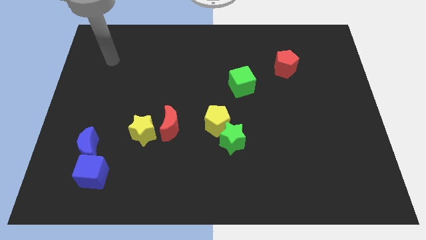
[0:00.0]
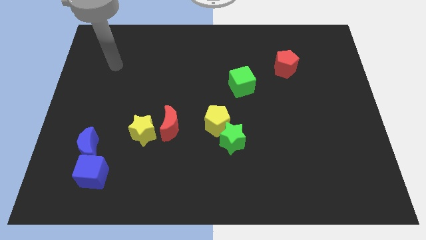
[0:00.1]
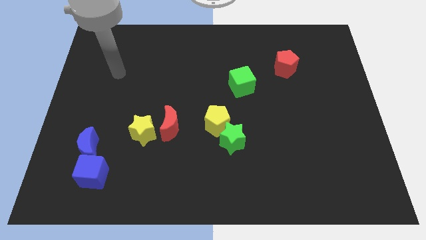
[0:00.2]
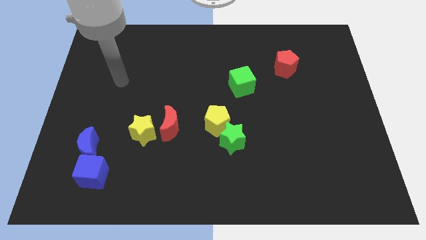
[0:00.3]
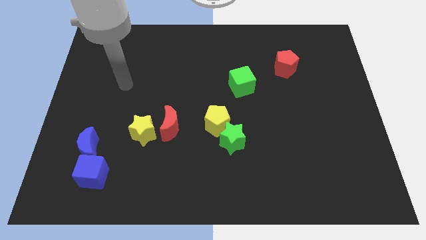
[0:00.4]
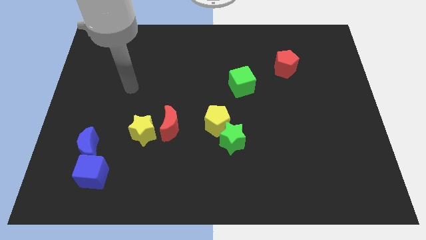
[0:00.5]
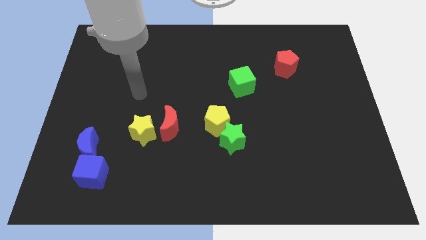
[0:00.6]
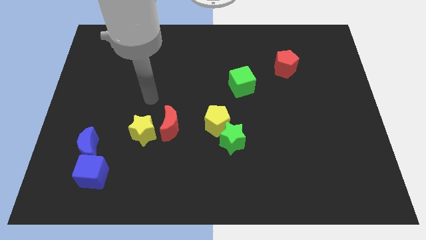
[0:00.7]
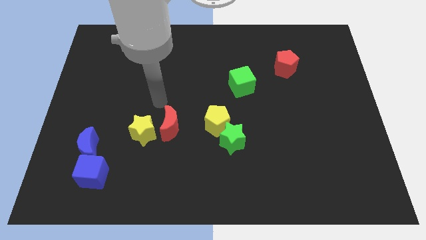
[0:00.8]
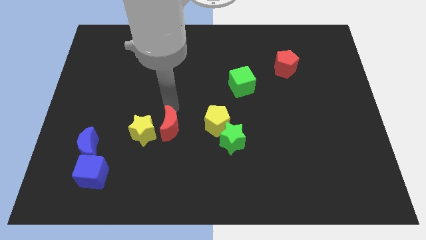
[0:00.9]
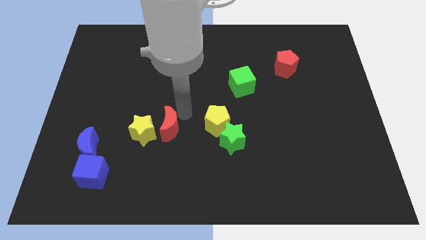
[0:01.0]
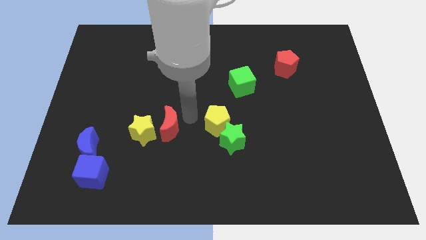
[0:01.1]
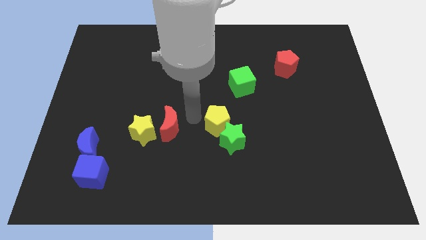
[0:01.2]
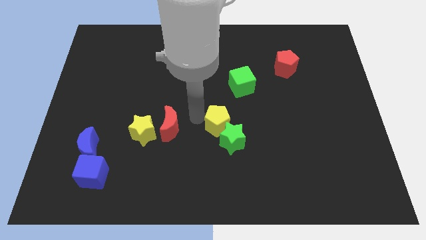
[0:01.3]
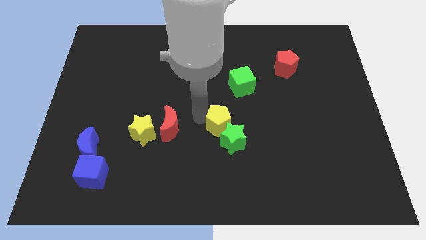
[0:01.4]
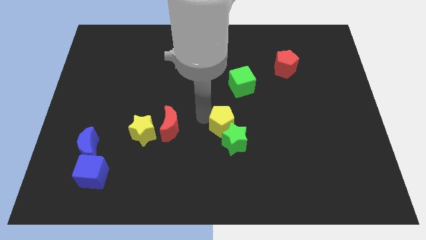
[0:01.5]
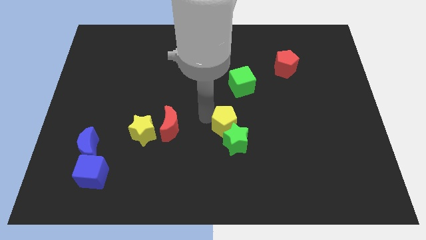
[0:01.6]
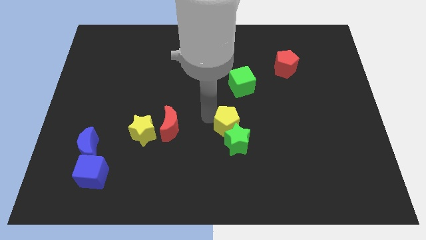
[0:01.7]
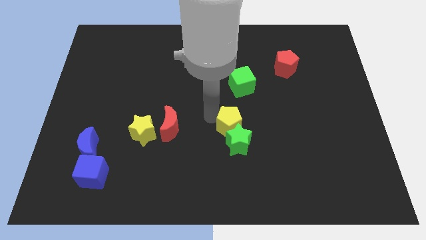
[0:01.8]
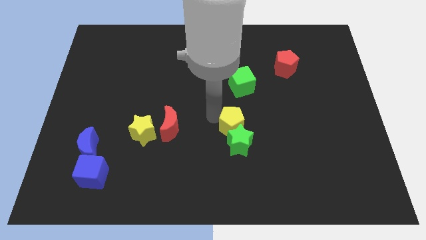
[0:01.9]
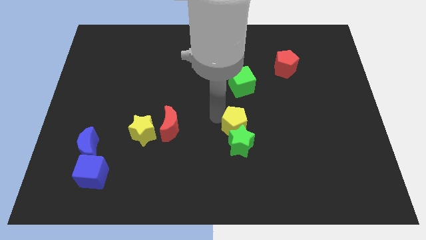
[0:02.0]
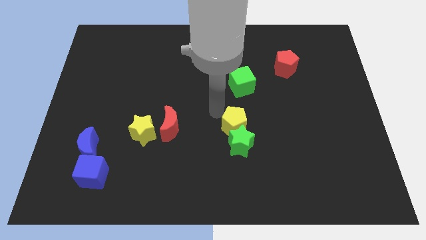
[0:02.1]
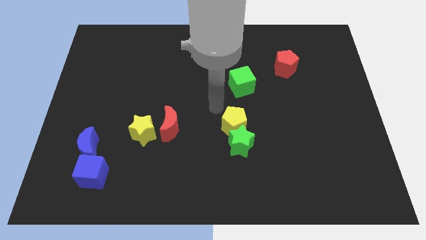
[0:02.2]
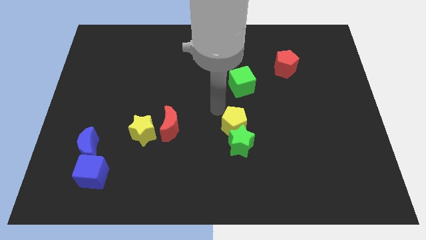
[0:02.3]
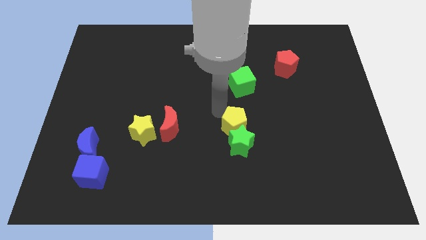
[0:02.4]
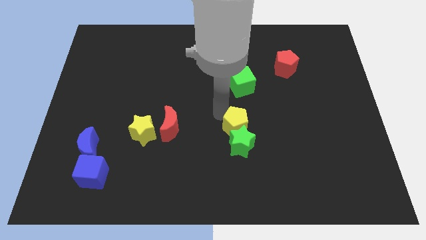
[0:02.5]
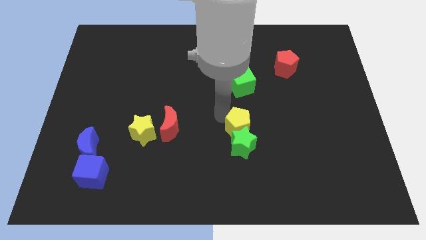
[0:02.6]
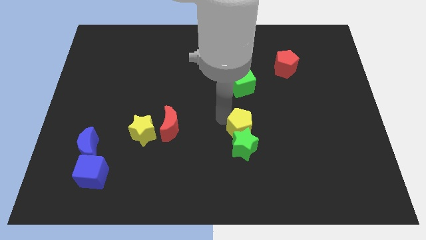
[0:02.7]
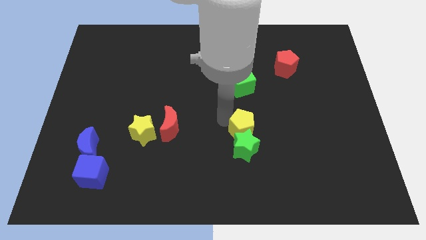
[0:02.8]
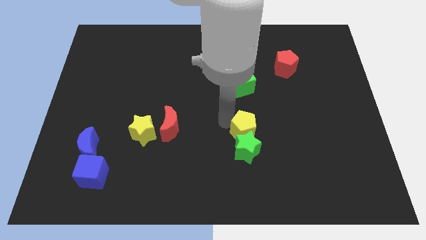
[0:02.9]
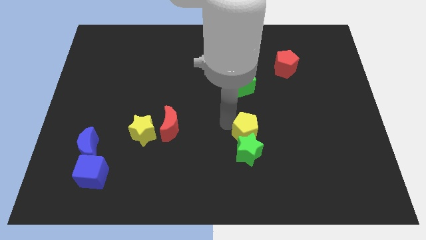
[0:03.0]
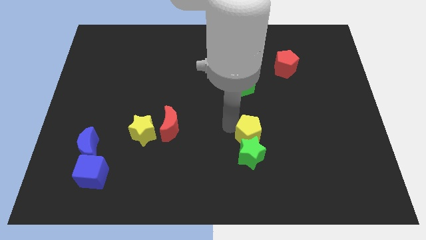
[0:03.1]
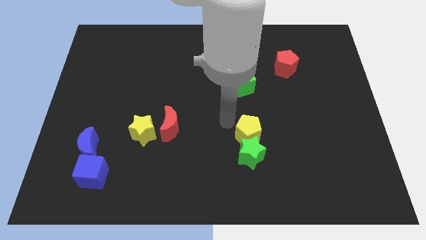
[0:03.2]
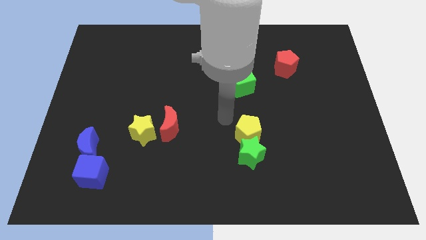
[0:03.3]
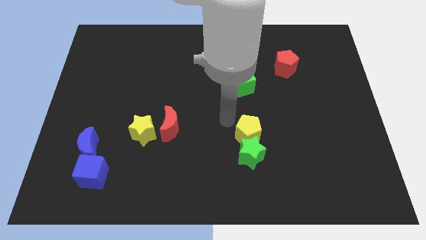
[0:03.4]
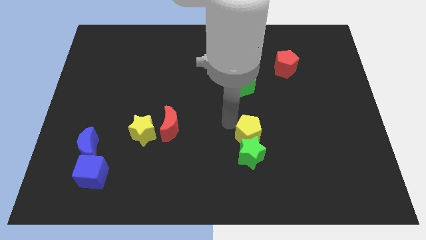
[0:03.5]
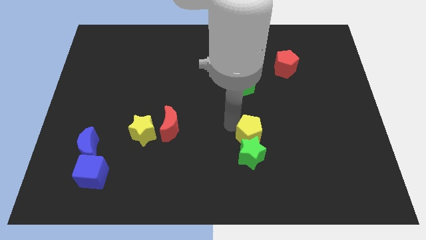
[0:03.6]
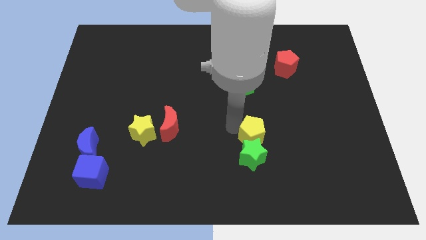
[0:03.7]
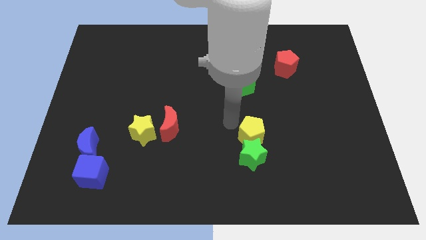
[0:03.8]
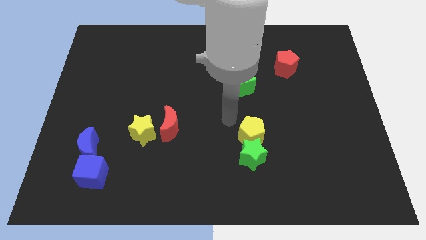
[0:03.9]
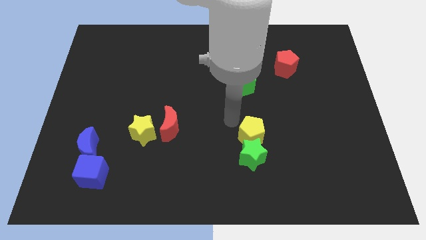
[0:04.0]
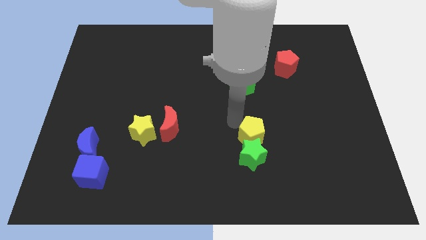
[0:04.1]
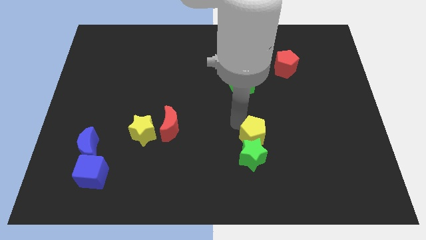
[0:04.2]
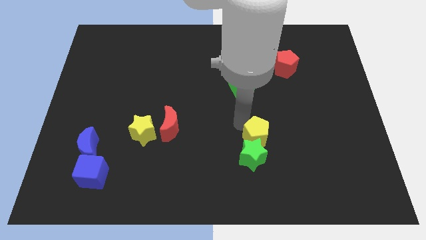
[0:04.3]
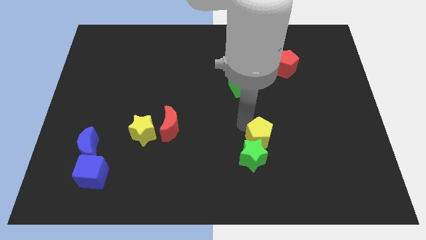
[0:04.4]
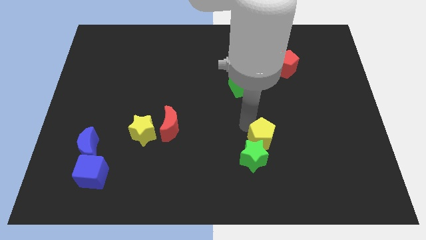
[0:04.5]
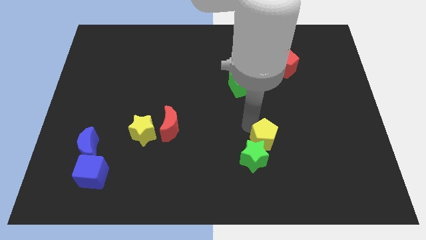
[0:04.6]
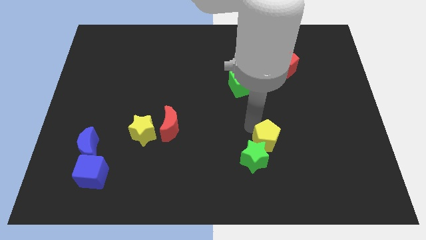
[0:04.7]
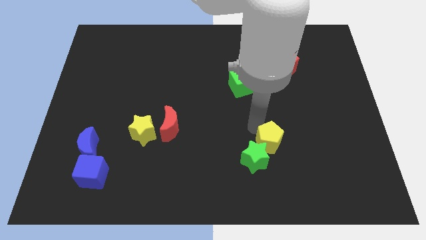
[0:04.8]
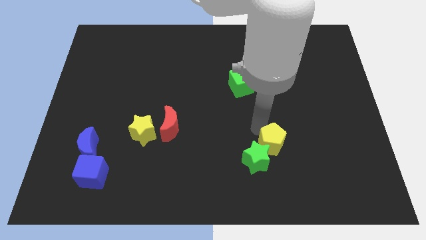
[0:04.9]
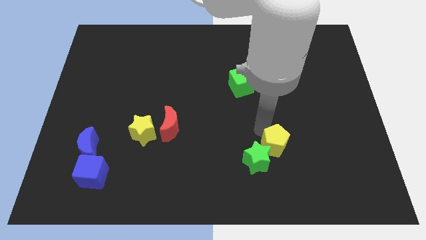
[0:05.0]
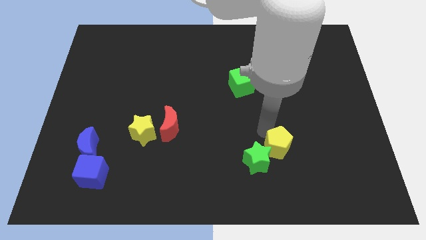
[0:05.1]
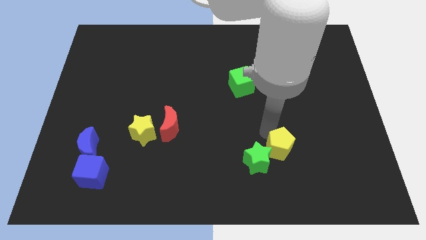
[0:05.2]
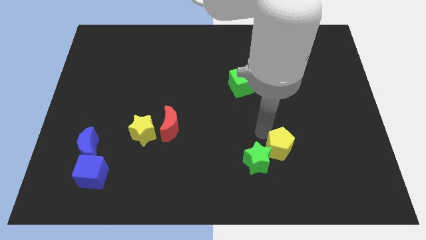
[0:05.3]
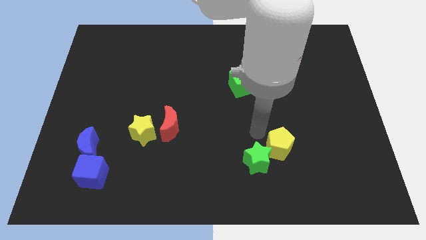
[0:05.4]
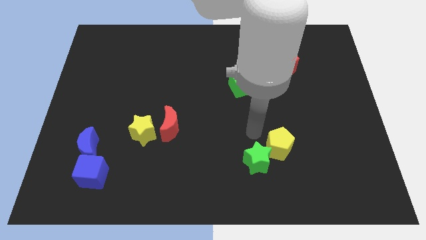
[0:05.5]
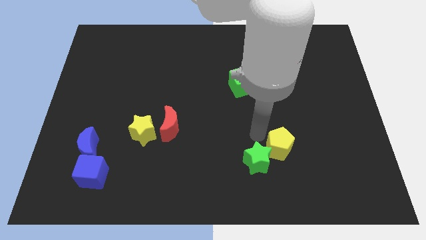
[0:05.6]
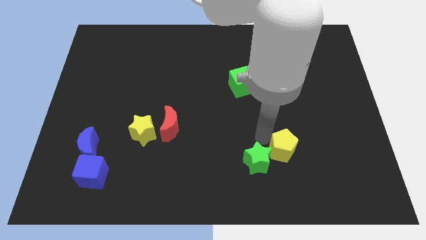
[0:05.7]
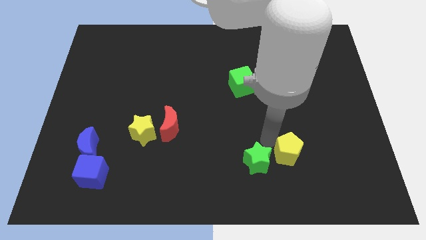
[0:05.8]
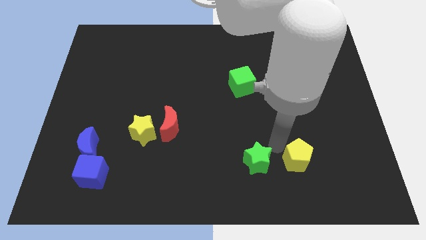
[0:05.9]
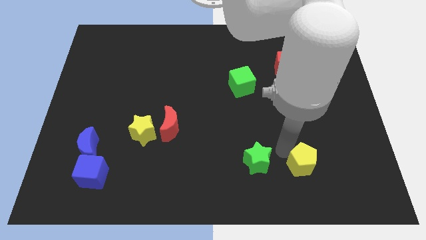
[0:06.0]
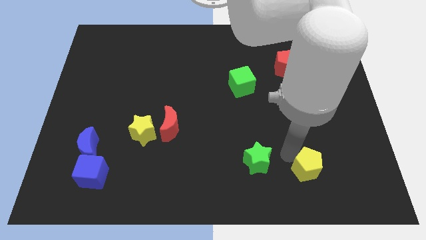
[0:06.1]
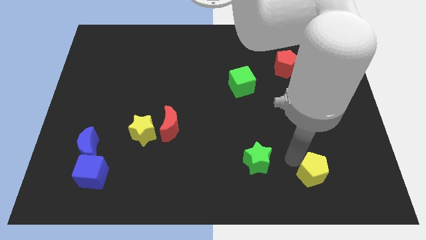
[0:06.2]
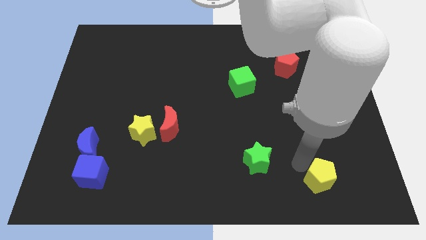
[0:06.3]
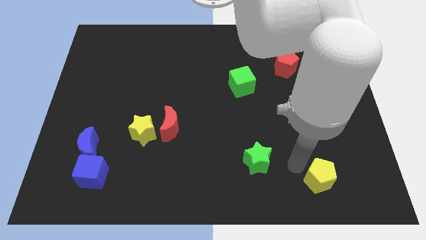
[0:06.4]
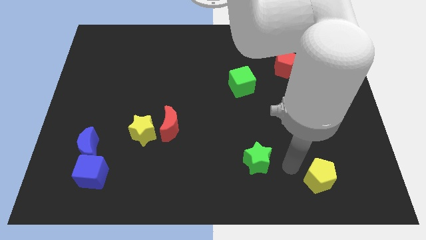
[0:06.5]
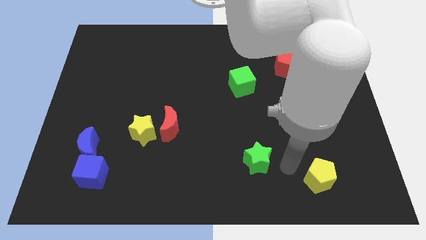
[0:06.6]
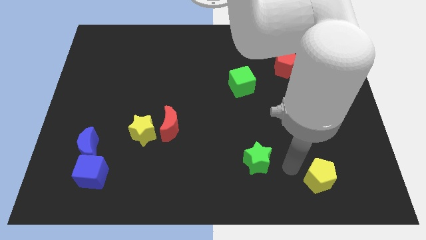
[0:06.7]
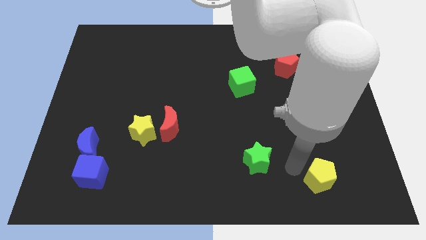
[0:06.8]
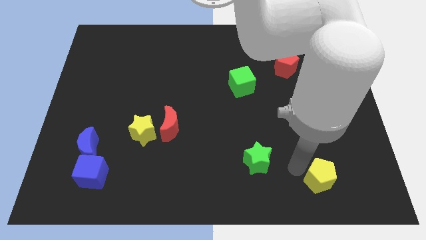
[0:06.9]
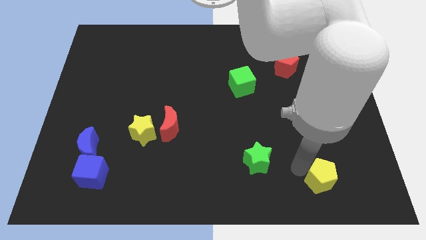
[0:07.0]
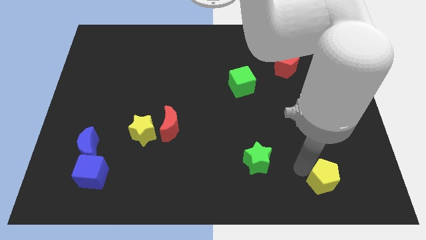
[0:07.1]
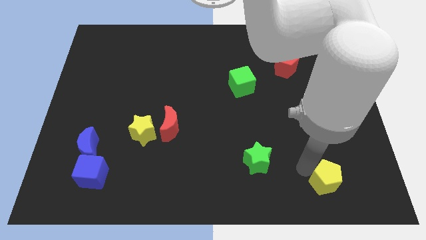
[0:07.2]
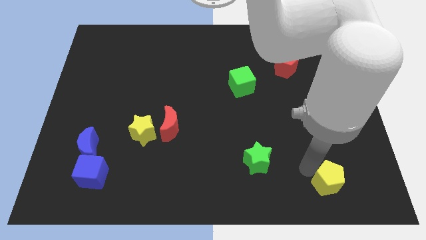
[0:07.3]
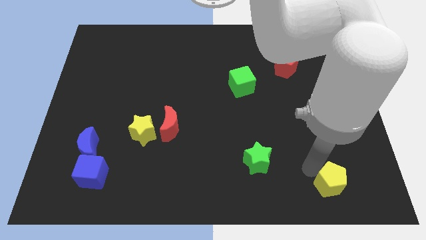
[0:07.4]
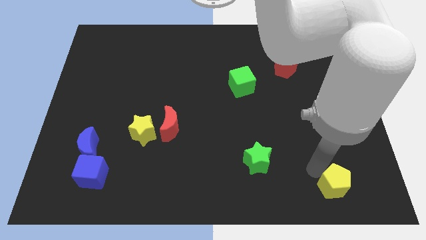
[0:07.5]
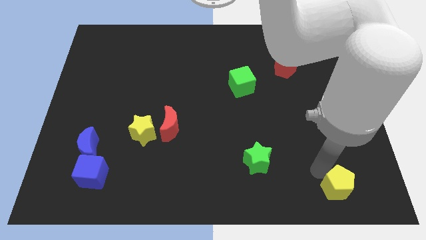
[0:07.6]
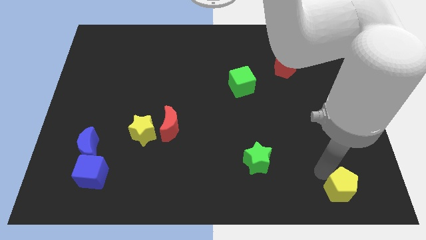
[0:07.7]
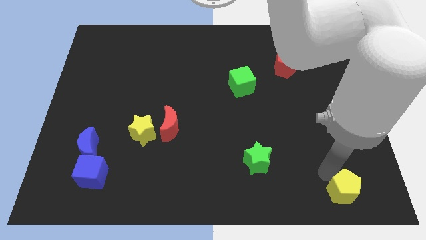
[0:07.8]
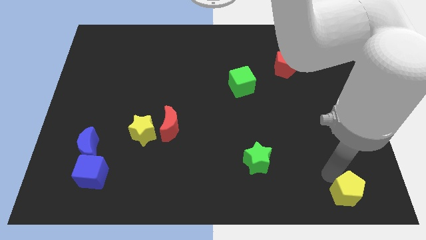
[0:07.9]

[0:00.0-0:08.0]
slide the yellow pentagon to the bottom right of the board
